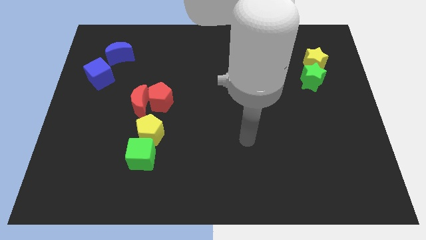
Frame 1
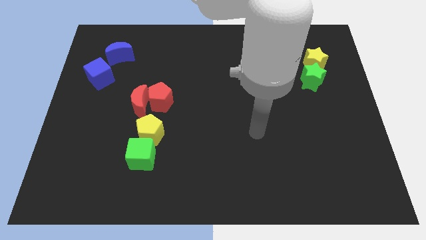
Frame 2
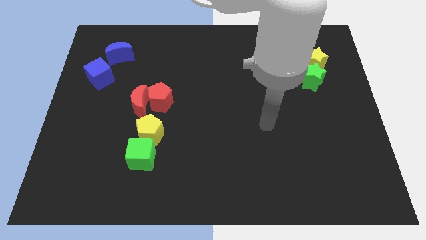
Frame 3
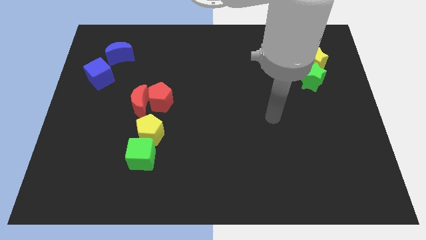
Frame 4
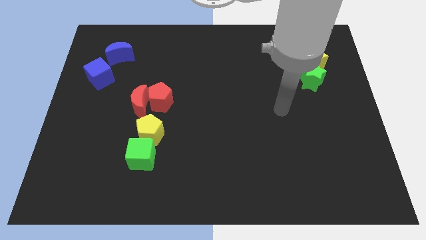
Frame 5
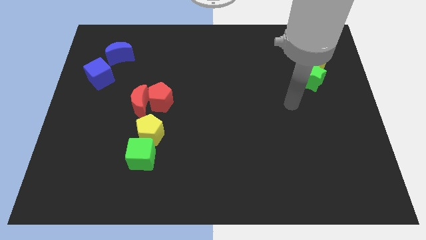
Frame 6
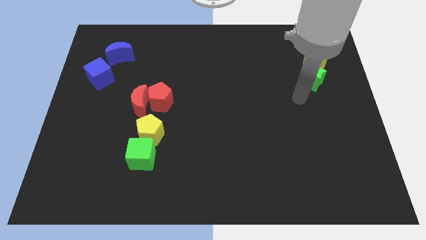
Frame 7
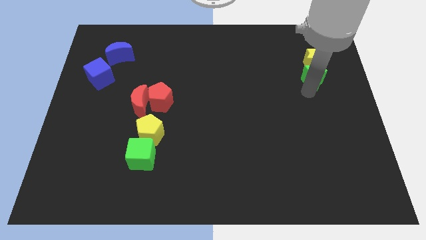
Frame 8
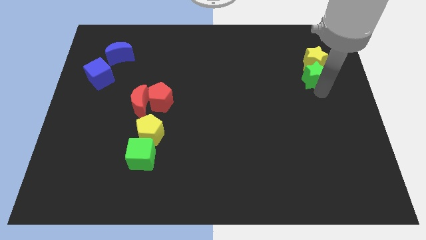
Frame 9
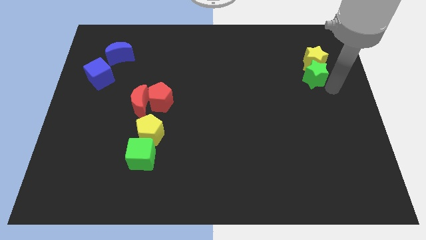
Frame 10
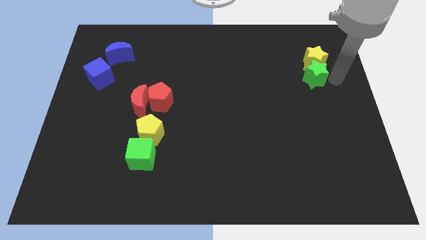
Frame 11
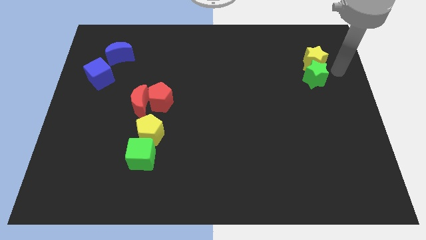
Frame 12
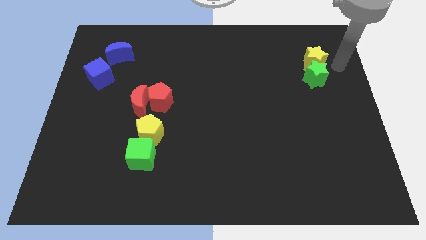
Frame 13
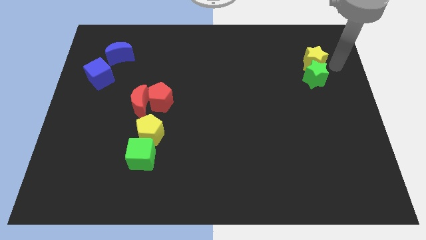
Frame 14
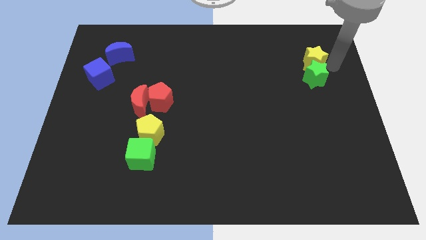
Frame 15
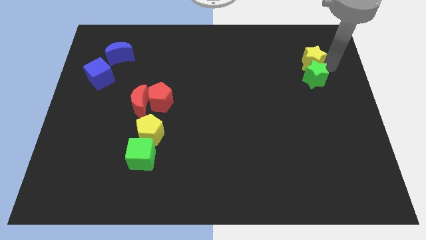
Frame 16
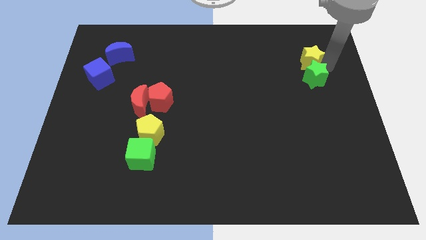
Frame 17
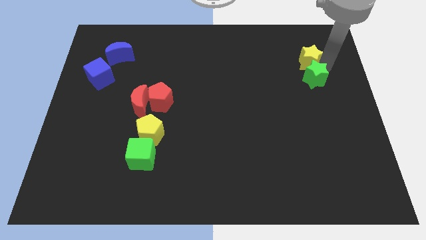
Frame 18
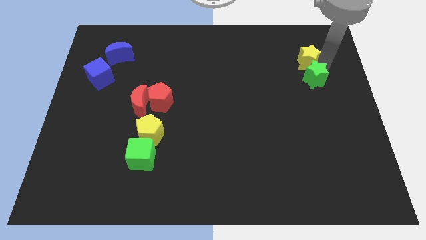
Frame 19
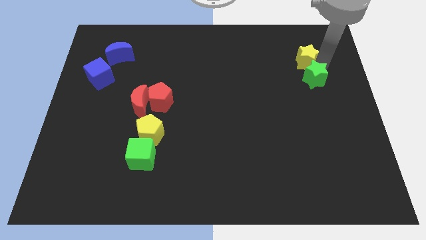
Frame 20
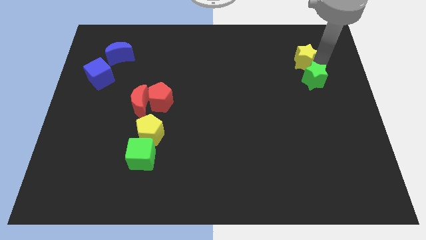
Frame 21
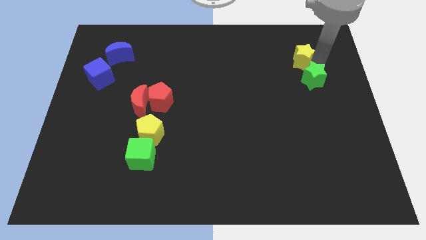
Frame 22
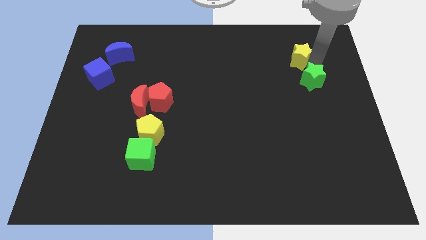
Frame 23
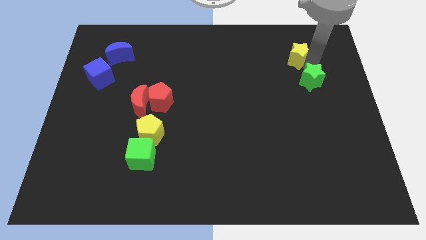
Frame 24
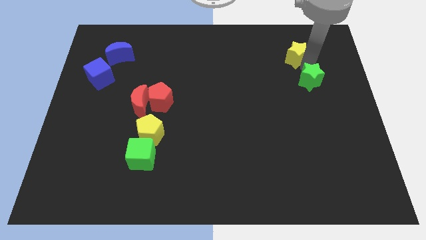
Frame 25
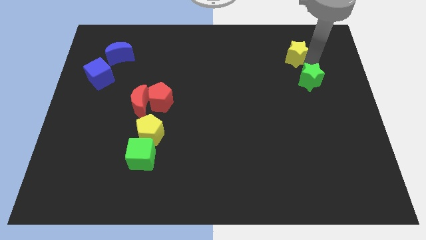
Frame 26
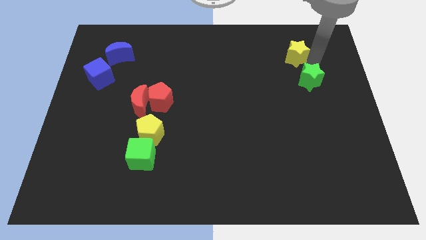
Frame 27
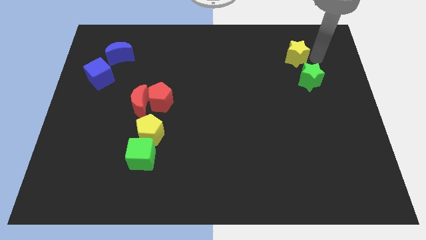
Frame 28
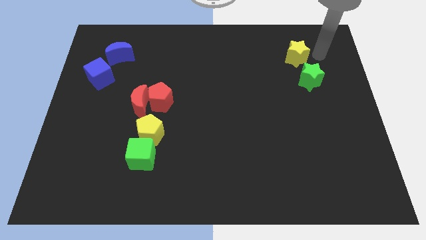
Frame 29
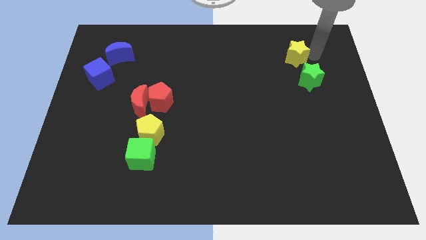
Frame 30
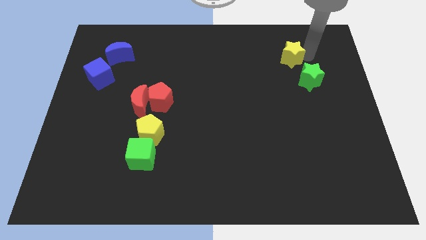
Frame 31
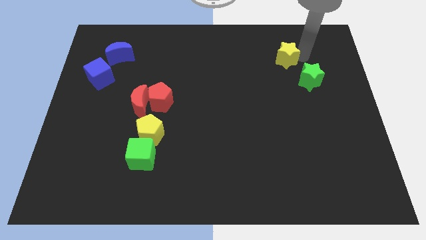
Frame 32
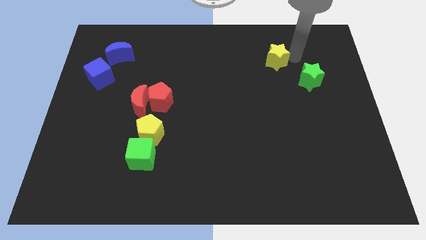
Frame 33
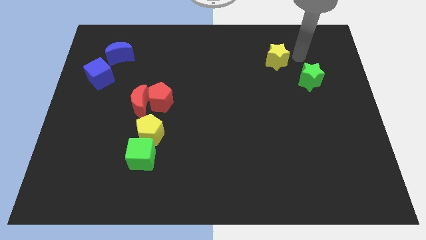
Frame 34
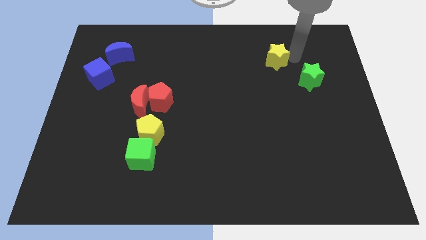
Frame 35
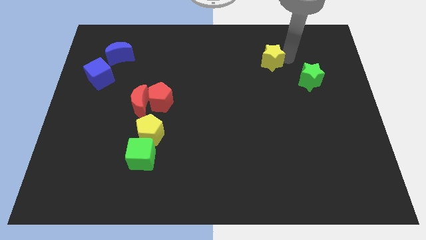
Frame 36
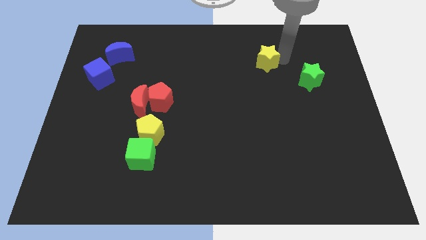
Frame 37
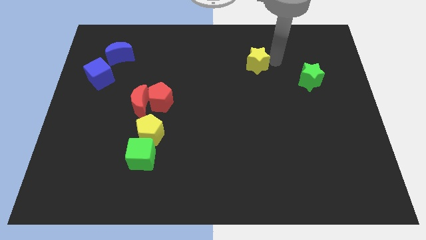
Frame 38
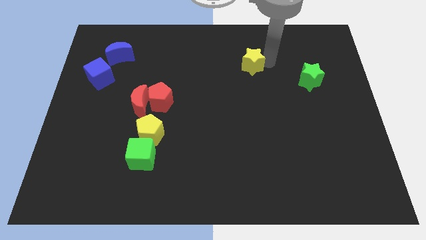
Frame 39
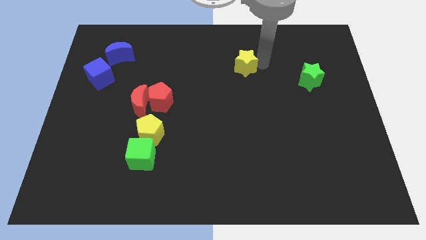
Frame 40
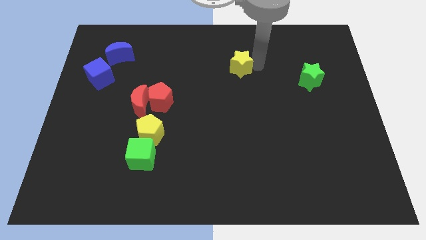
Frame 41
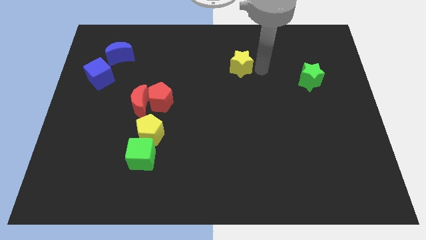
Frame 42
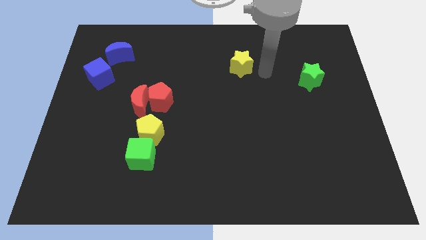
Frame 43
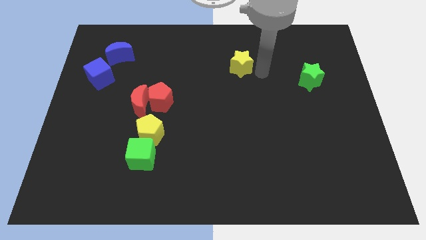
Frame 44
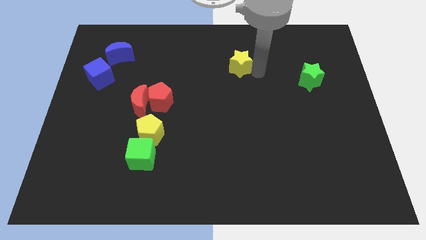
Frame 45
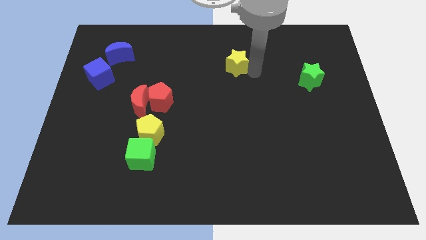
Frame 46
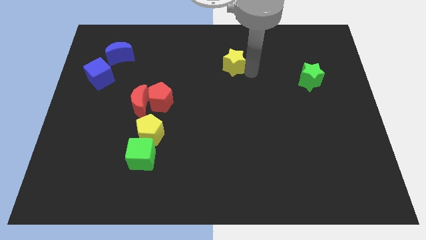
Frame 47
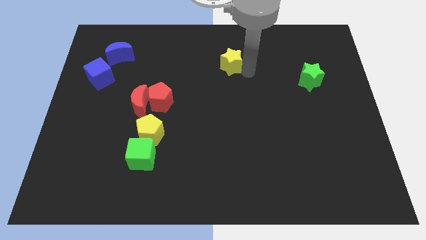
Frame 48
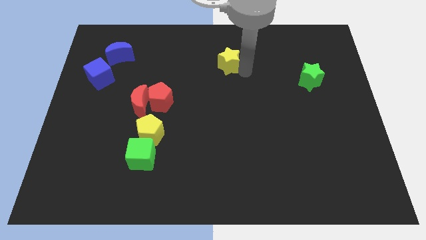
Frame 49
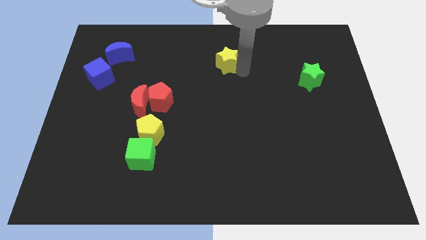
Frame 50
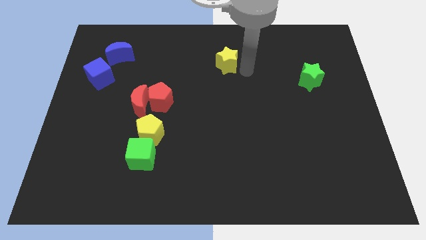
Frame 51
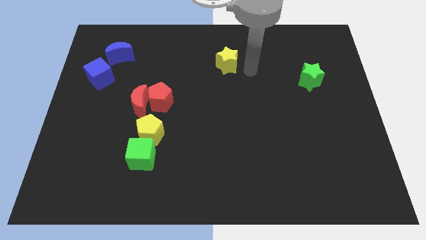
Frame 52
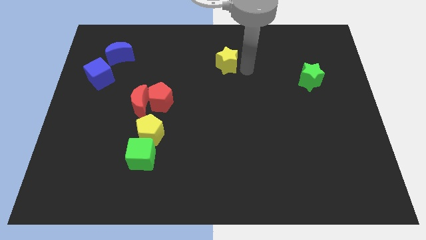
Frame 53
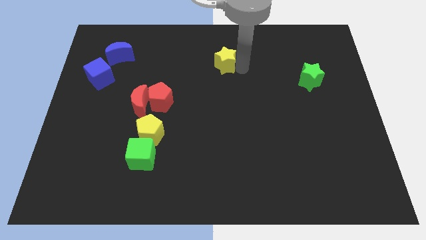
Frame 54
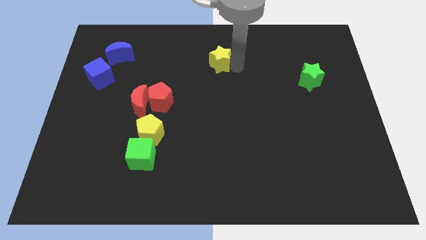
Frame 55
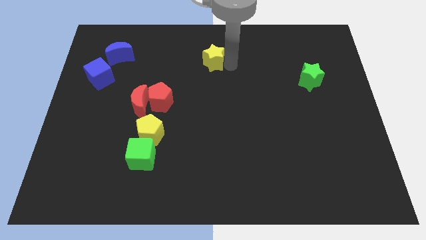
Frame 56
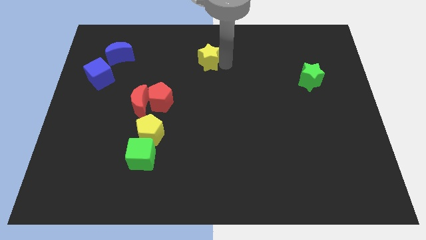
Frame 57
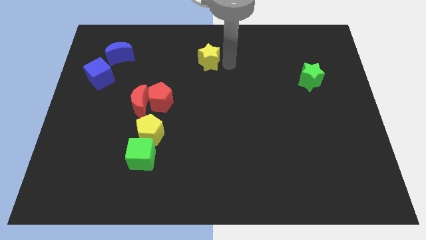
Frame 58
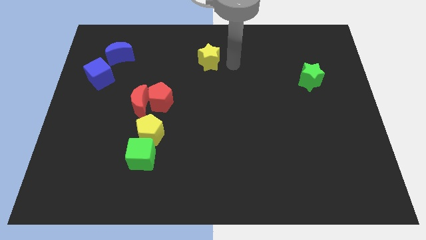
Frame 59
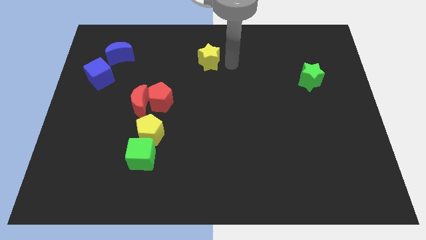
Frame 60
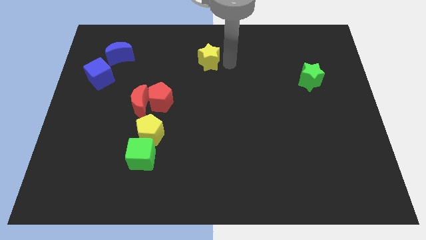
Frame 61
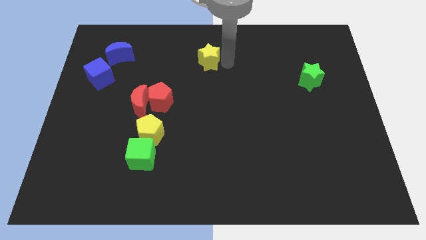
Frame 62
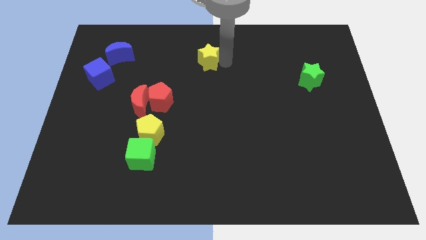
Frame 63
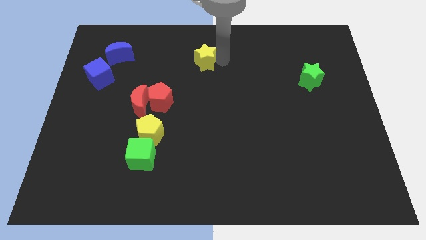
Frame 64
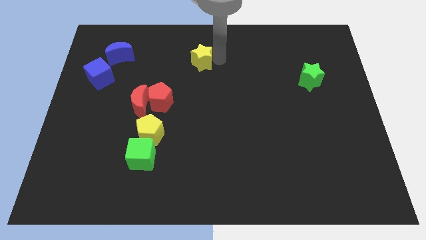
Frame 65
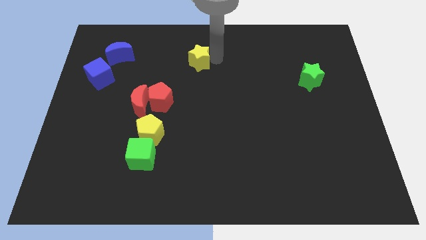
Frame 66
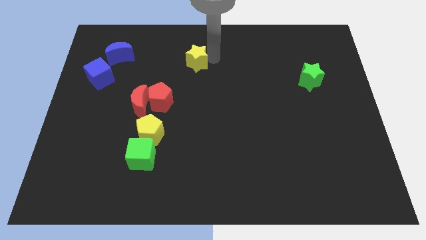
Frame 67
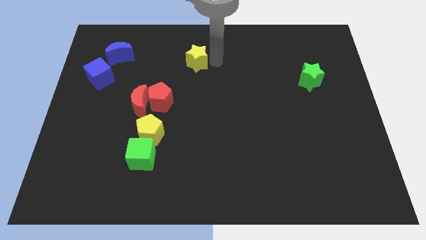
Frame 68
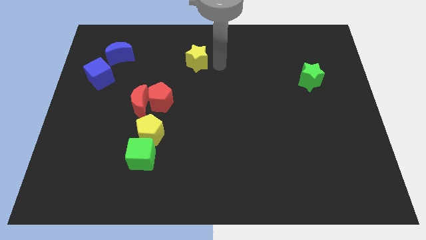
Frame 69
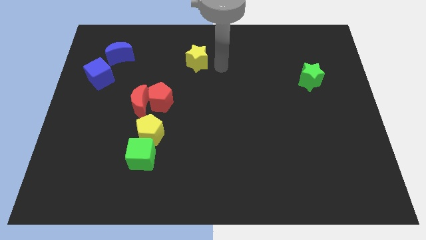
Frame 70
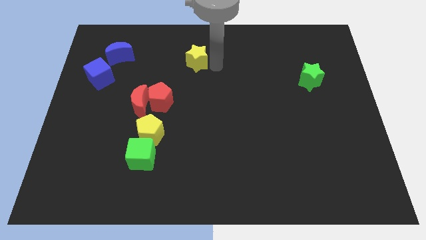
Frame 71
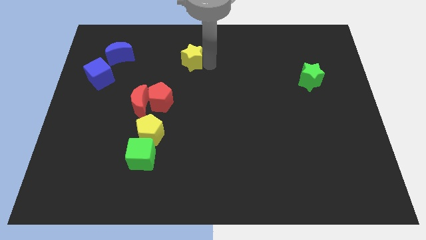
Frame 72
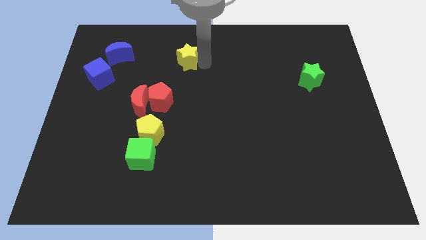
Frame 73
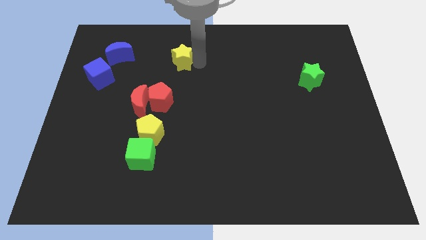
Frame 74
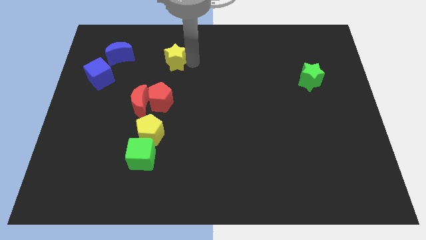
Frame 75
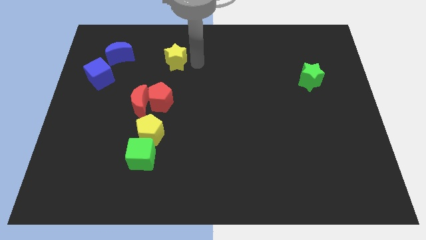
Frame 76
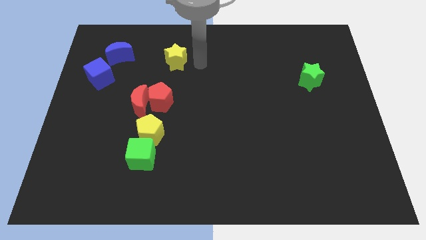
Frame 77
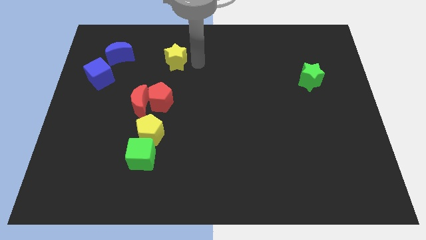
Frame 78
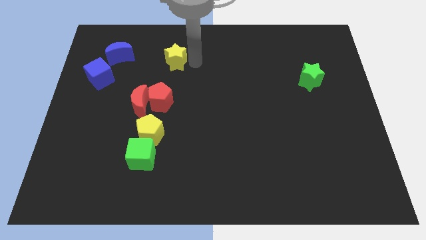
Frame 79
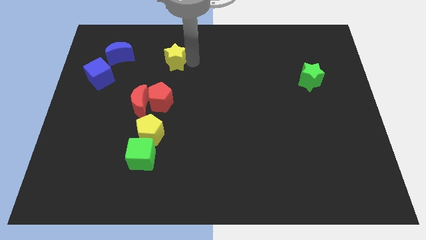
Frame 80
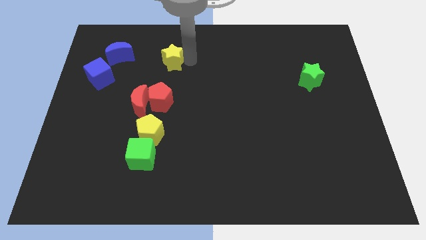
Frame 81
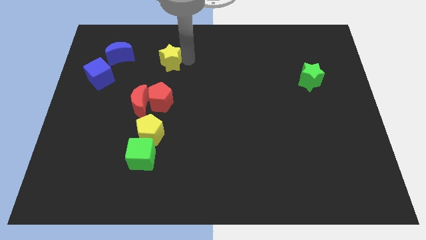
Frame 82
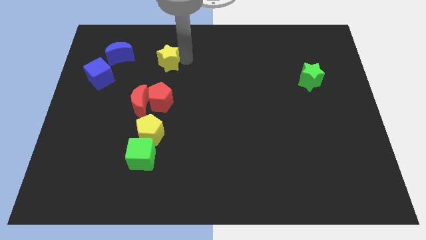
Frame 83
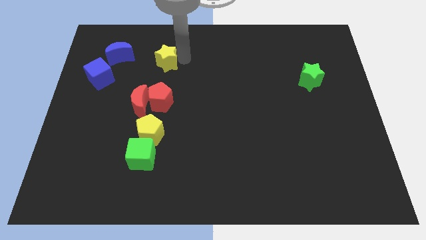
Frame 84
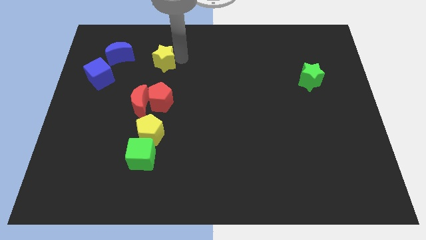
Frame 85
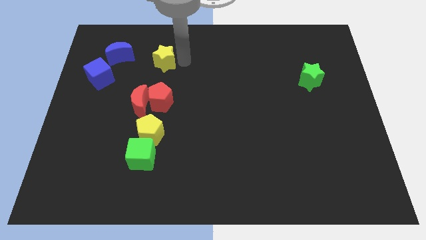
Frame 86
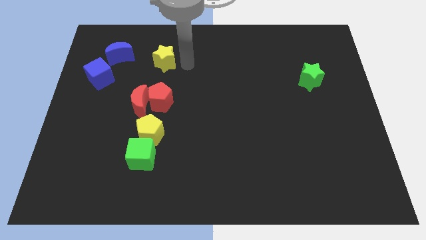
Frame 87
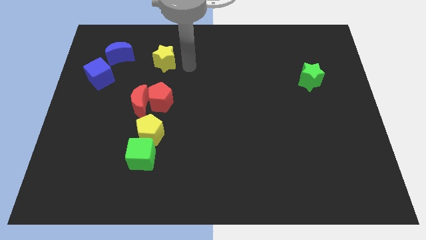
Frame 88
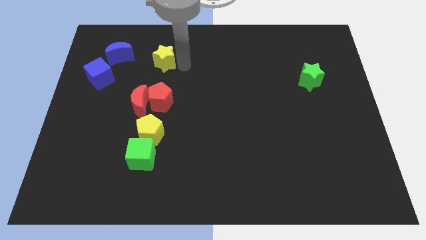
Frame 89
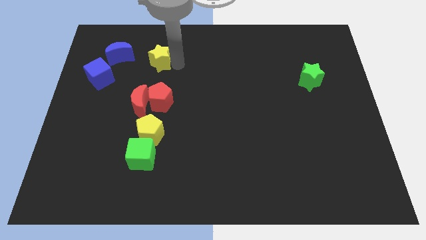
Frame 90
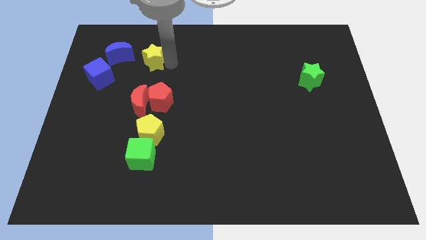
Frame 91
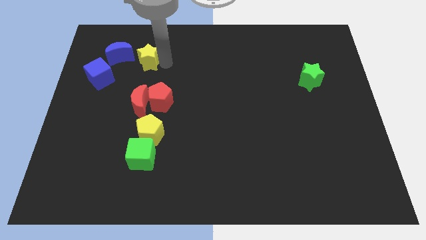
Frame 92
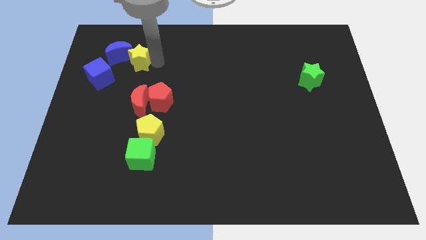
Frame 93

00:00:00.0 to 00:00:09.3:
push the yellow star to the blue moon
